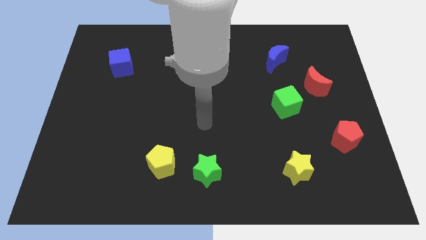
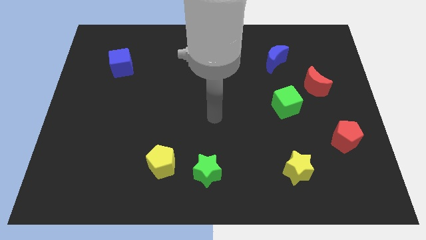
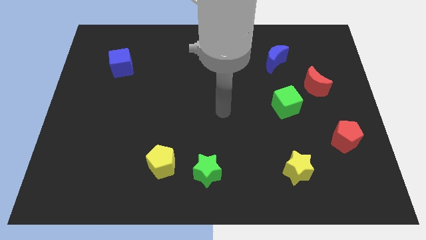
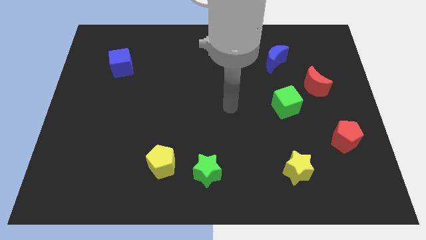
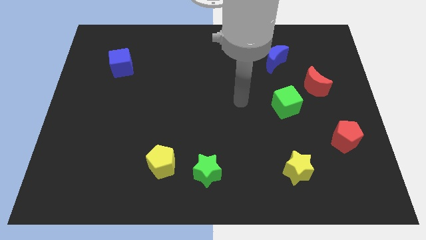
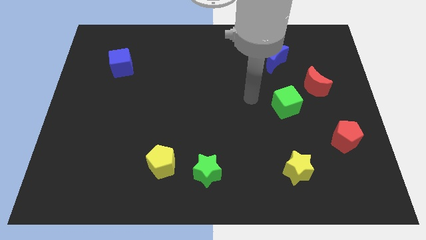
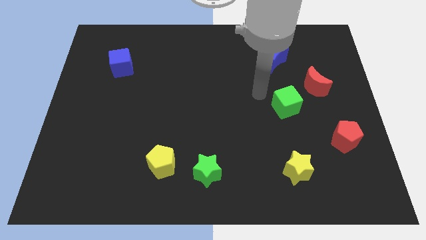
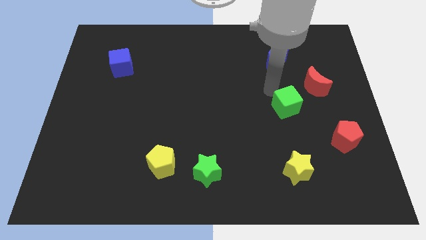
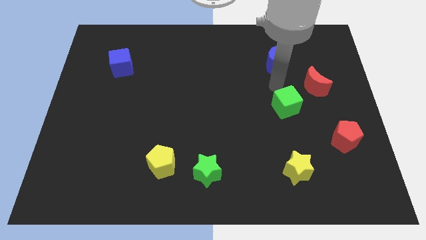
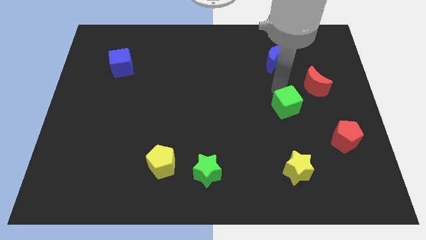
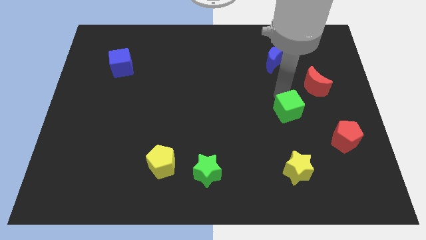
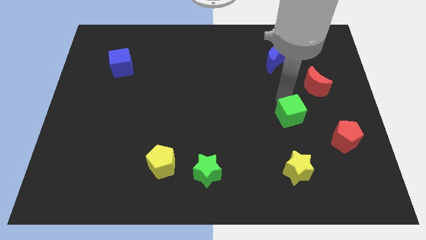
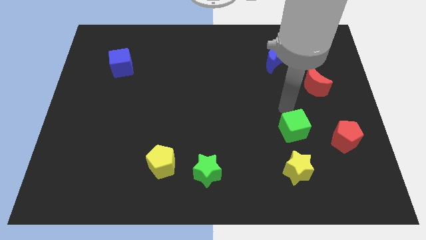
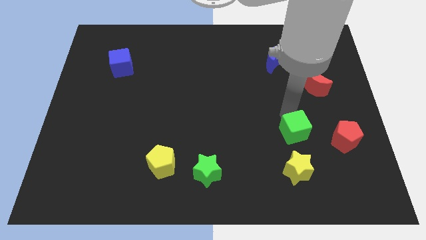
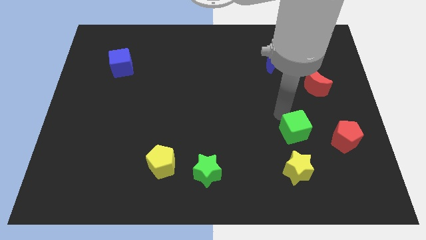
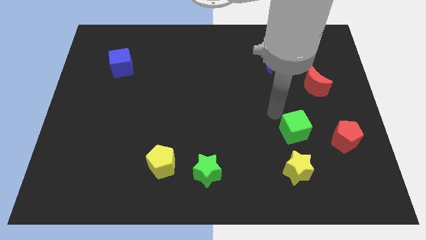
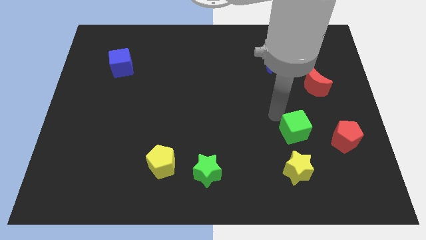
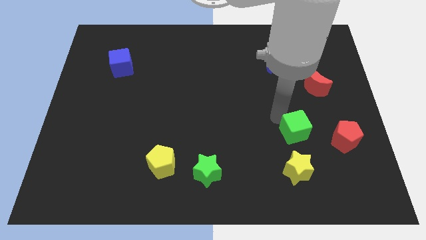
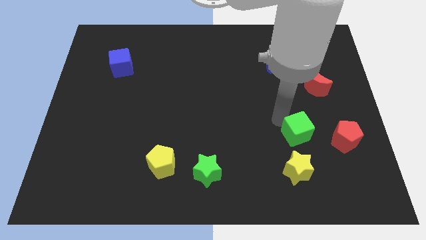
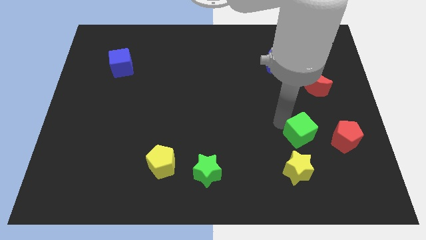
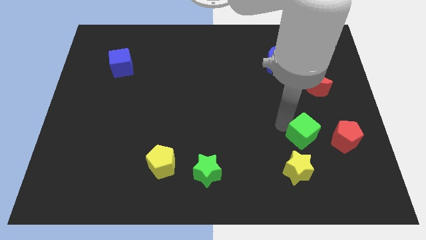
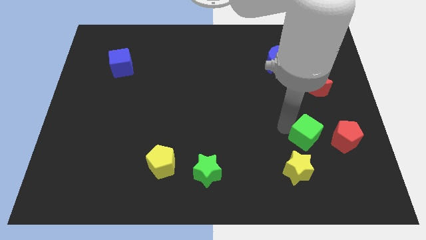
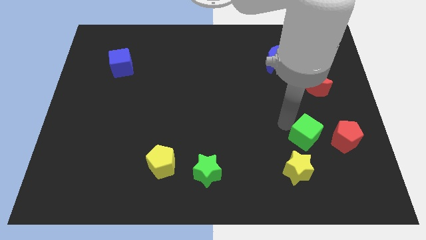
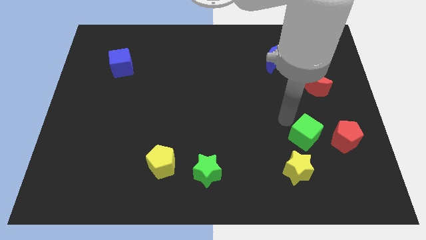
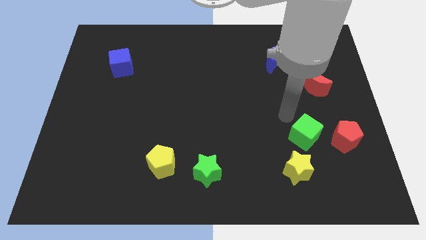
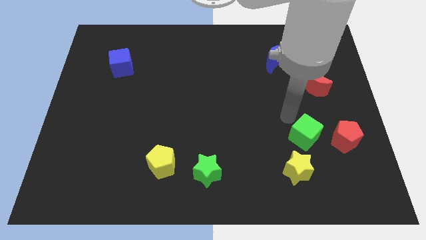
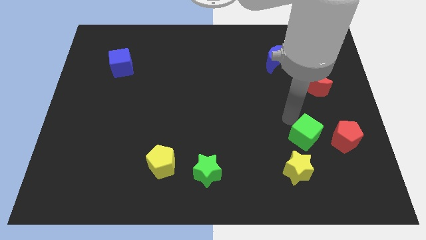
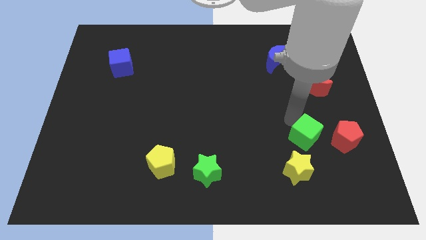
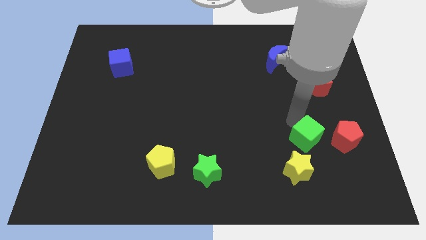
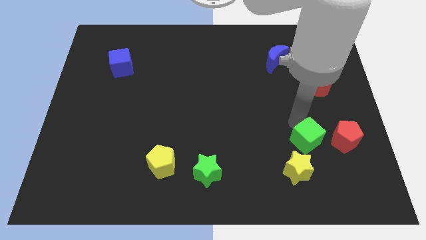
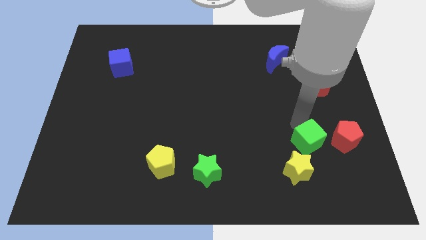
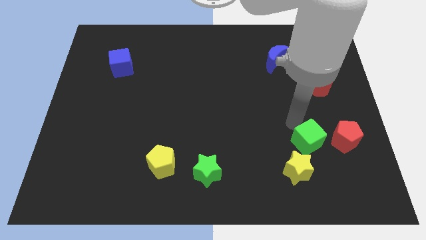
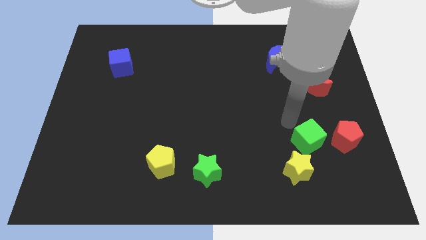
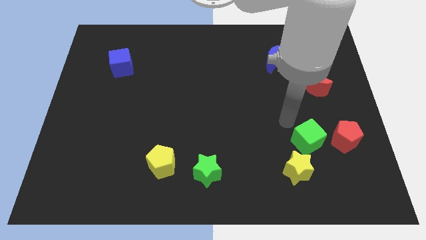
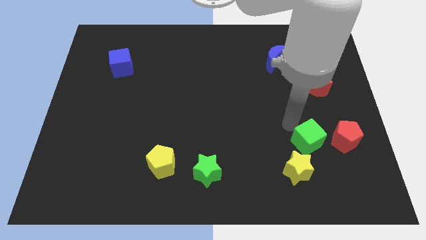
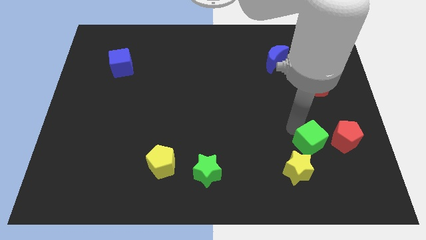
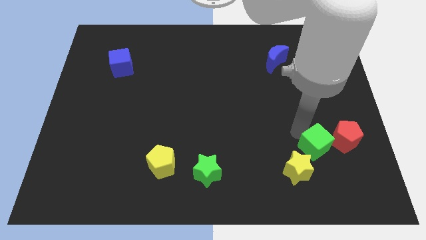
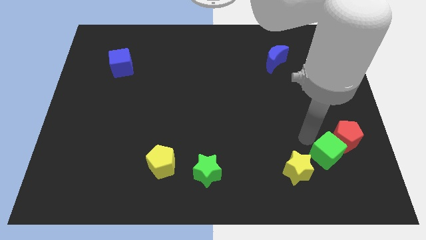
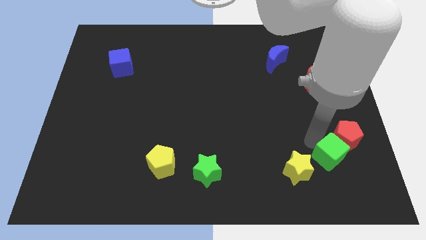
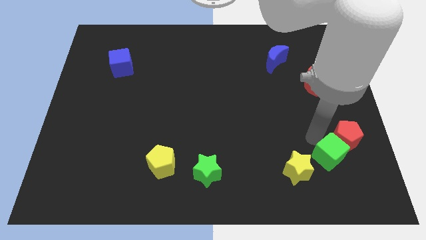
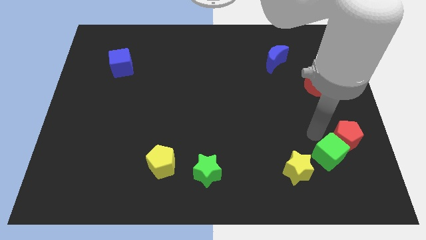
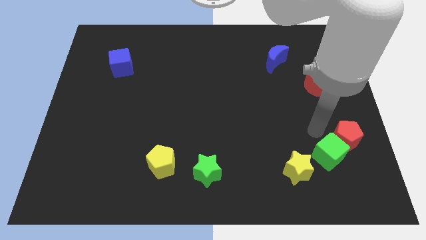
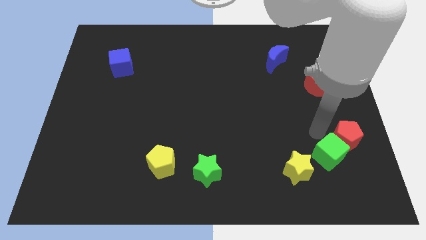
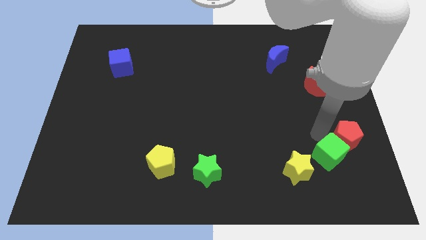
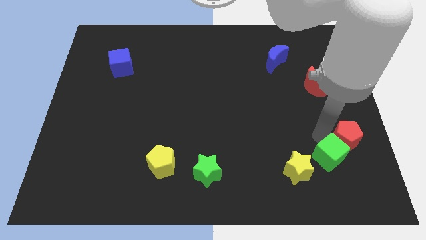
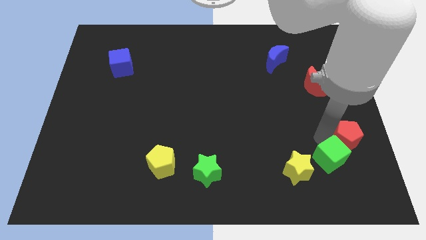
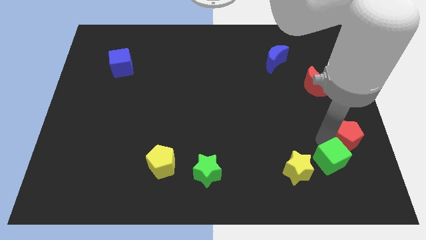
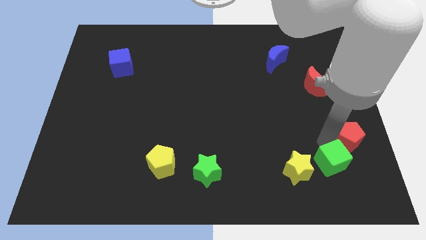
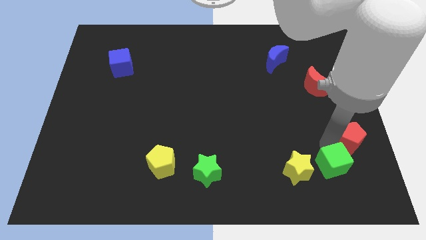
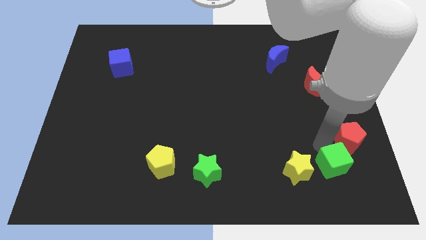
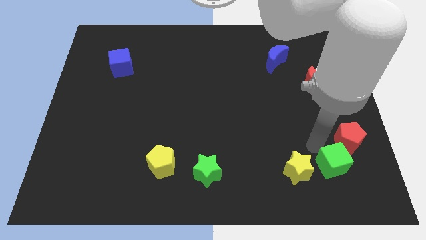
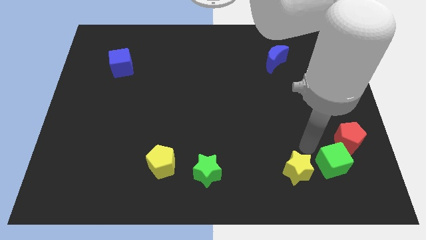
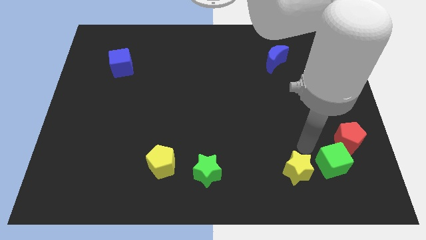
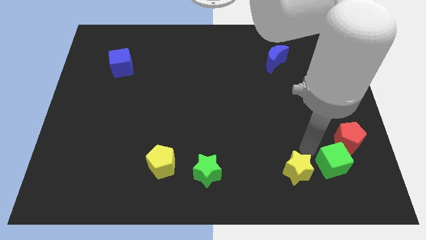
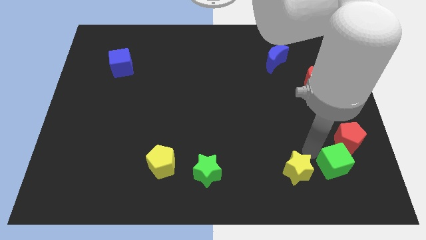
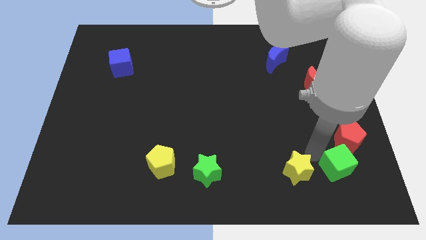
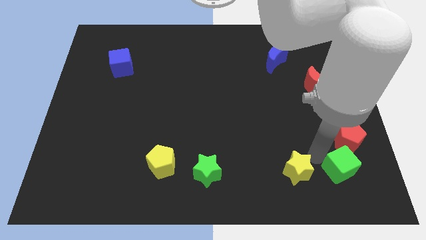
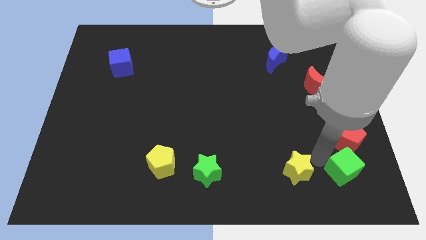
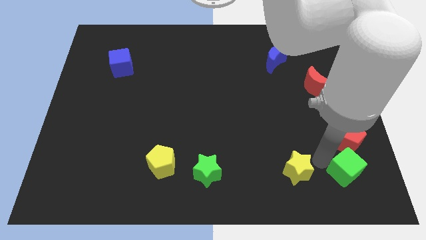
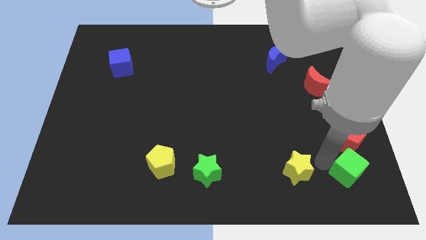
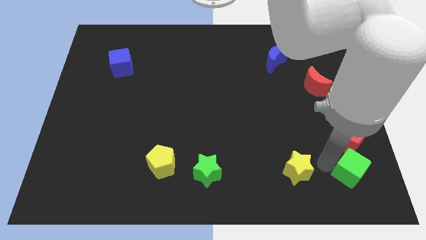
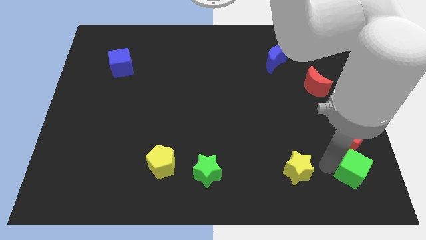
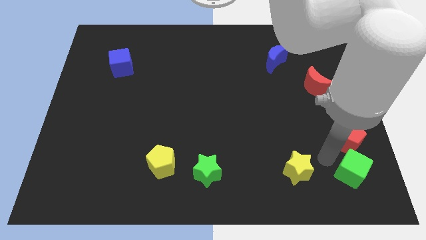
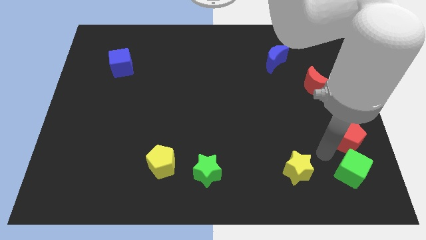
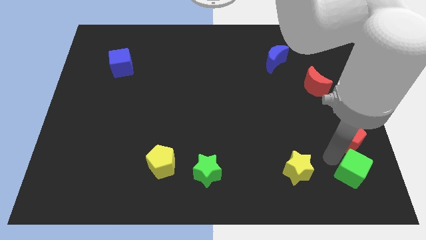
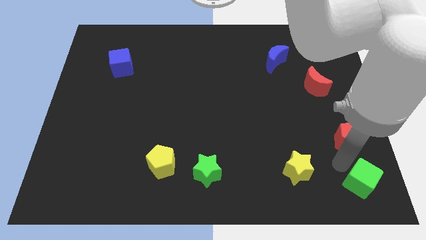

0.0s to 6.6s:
push the green cube to the bottom right
